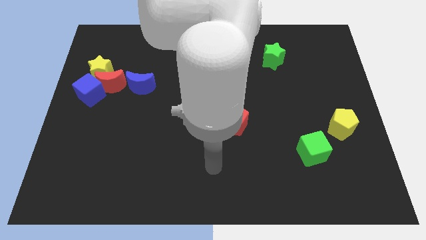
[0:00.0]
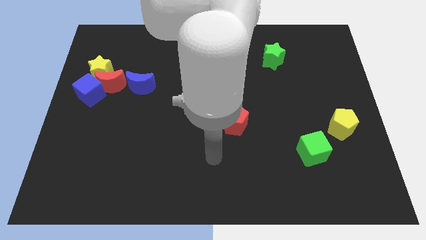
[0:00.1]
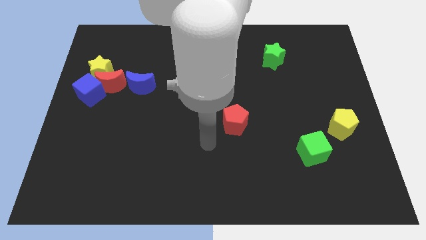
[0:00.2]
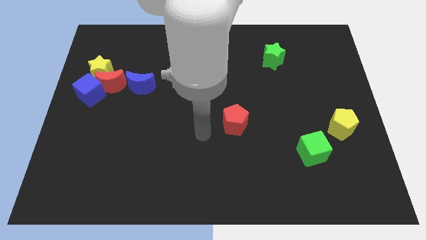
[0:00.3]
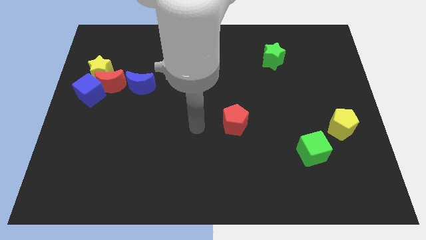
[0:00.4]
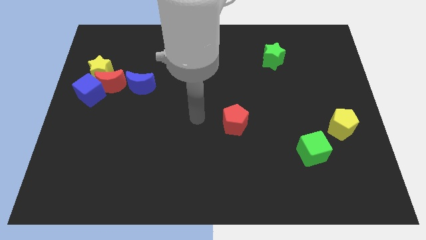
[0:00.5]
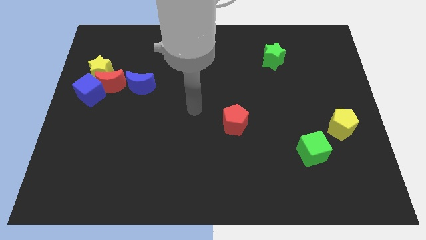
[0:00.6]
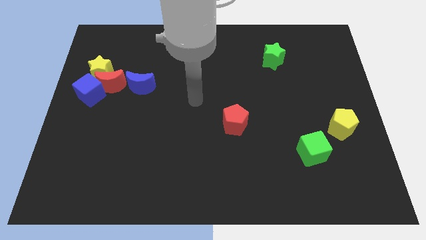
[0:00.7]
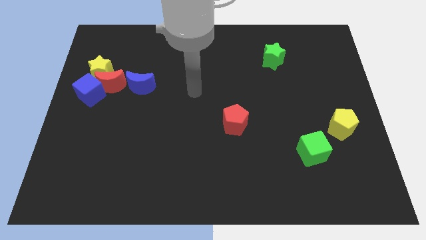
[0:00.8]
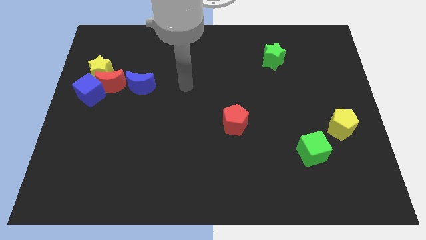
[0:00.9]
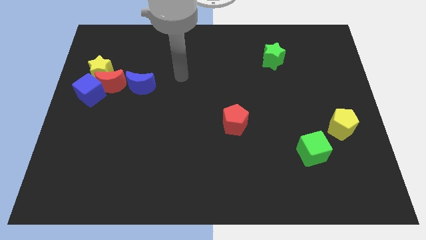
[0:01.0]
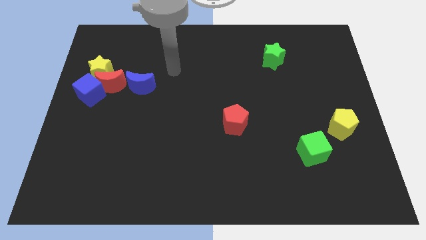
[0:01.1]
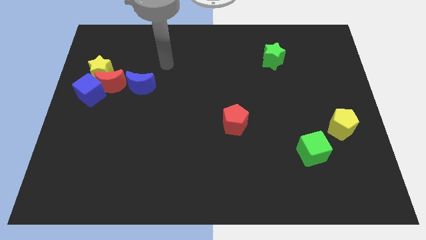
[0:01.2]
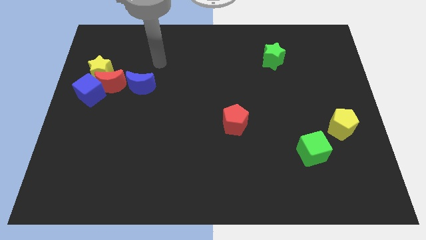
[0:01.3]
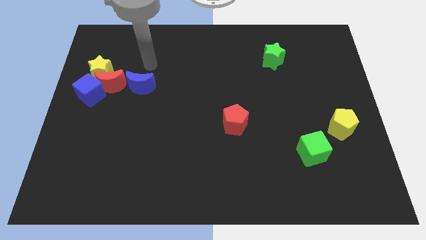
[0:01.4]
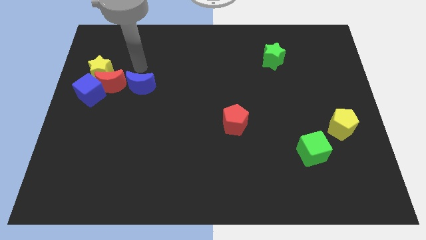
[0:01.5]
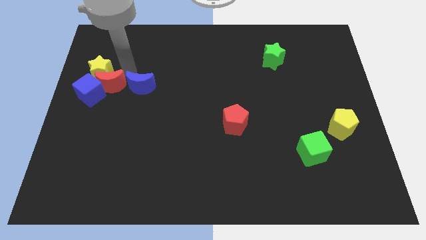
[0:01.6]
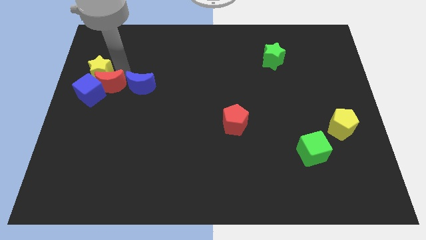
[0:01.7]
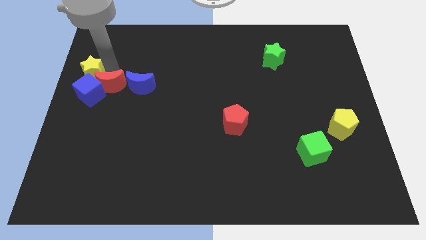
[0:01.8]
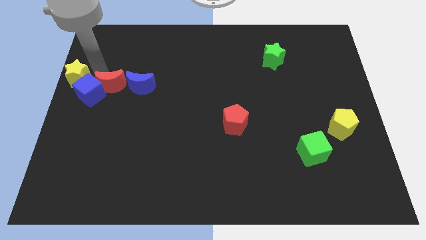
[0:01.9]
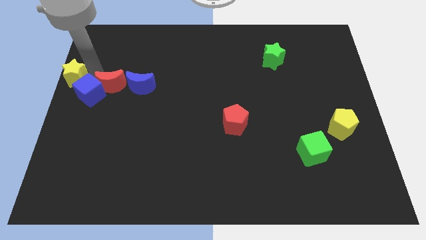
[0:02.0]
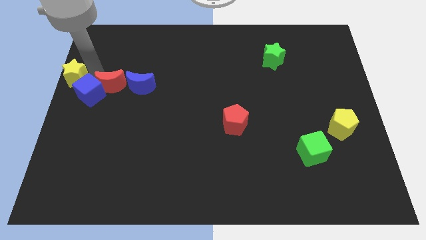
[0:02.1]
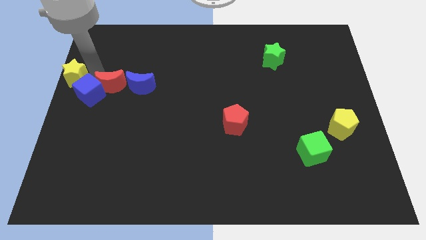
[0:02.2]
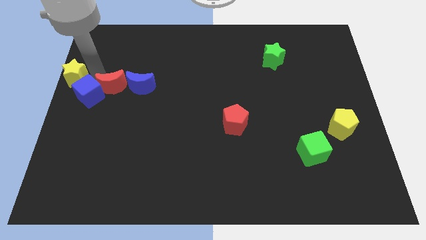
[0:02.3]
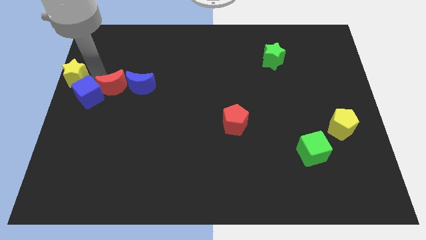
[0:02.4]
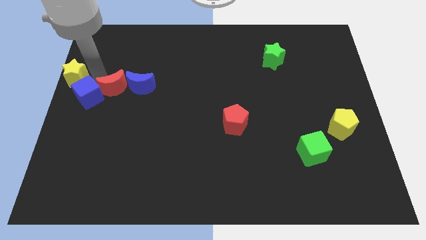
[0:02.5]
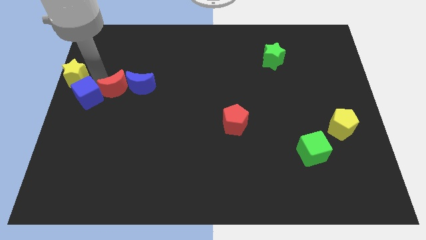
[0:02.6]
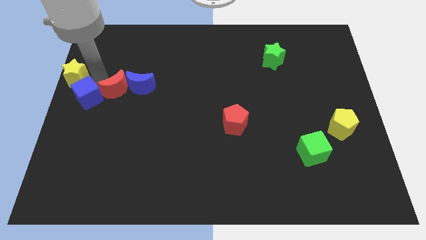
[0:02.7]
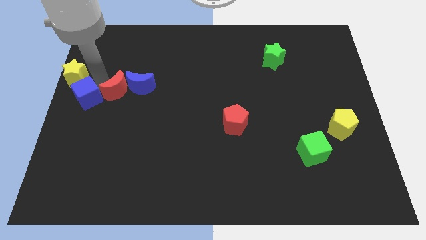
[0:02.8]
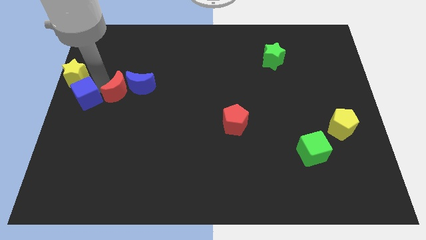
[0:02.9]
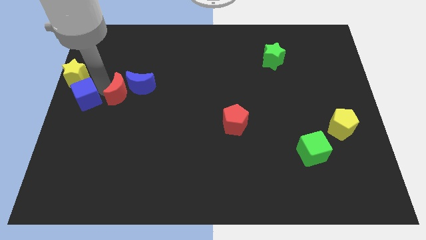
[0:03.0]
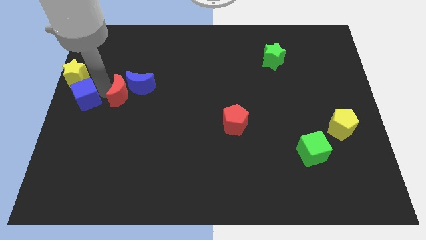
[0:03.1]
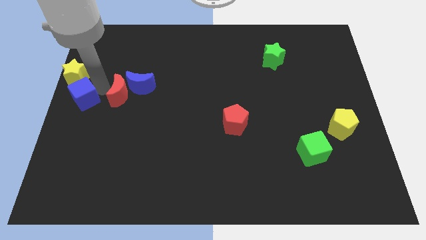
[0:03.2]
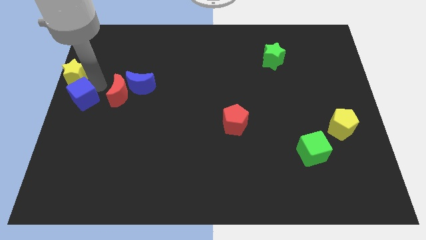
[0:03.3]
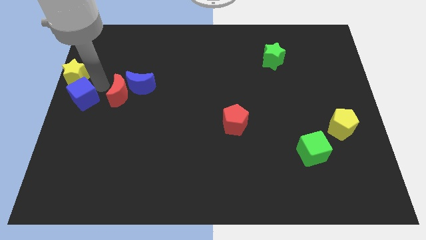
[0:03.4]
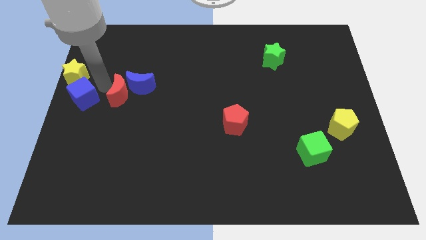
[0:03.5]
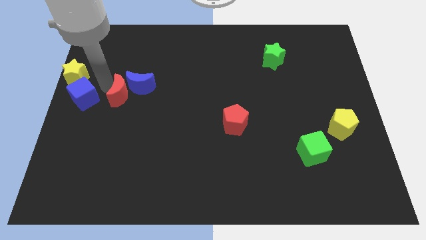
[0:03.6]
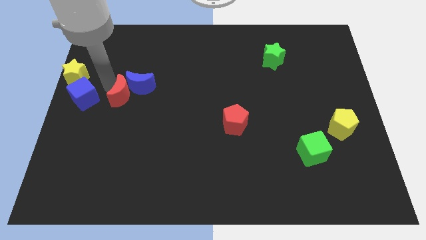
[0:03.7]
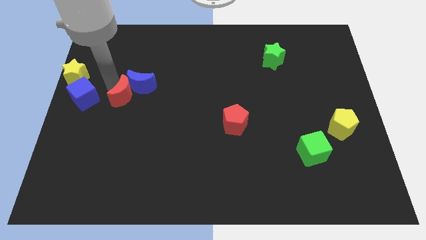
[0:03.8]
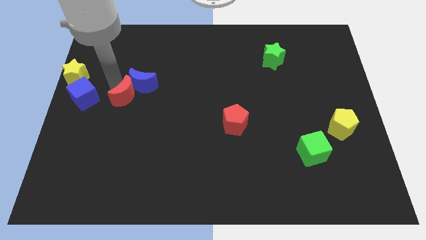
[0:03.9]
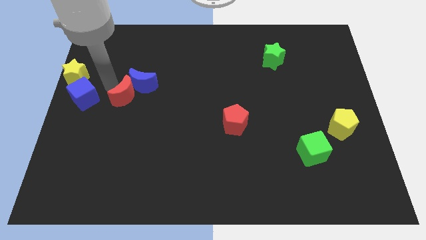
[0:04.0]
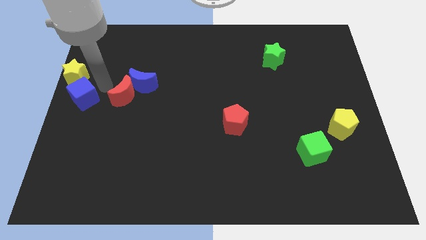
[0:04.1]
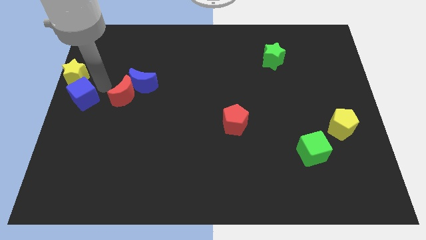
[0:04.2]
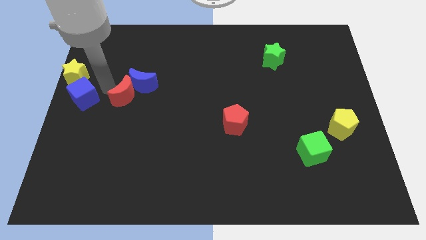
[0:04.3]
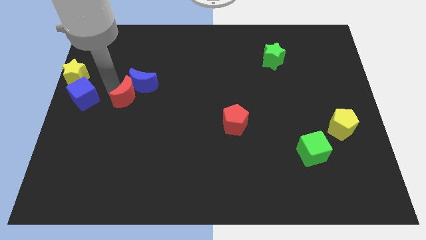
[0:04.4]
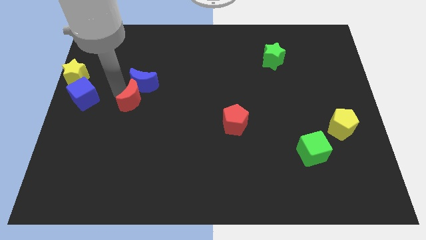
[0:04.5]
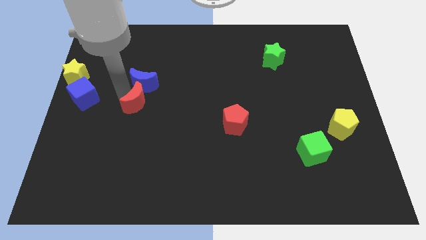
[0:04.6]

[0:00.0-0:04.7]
separate the red moon from the yellow star, blue cube, and blue moon

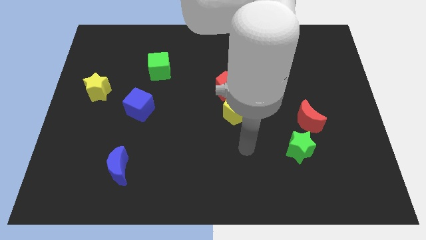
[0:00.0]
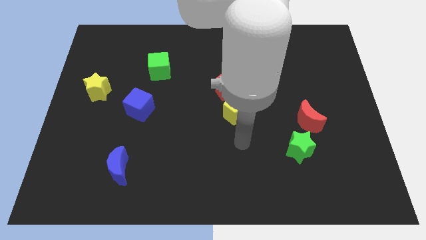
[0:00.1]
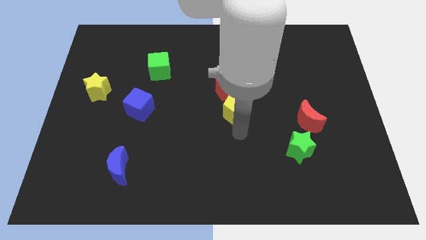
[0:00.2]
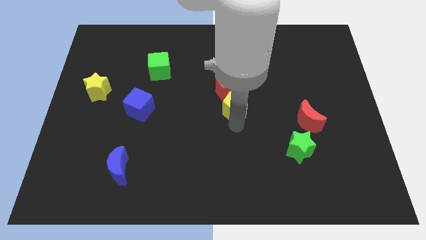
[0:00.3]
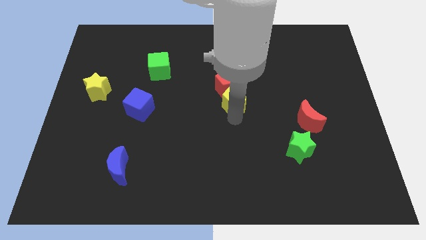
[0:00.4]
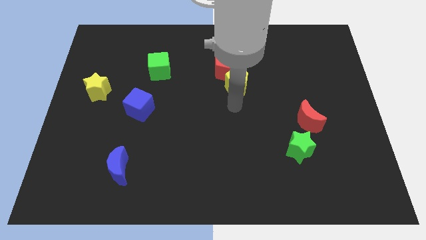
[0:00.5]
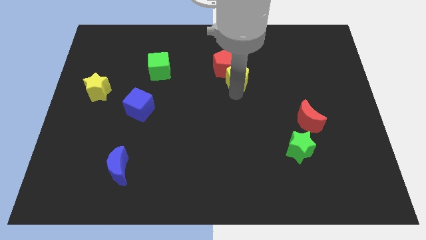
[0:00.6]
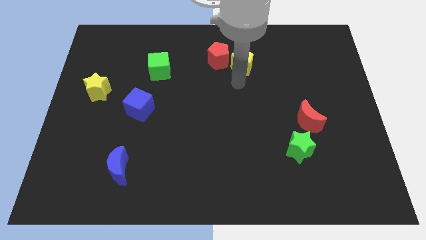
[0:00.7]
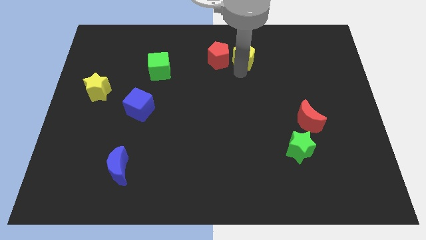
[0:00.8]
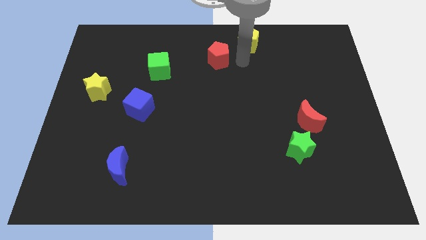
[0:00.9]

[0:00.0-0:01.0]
move the red pentagon away from the yellow pentagon

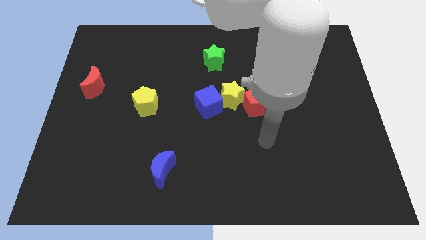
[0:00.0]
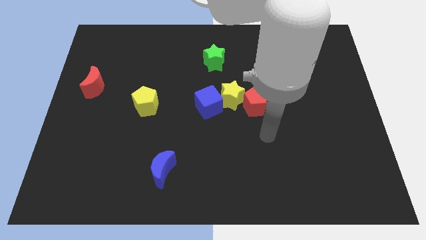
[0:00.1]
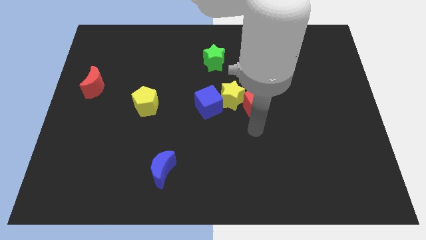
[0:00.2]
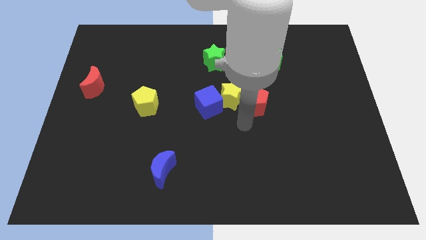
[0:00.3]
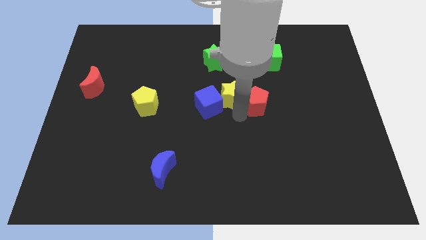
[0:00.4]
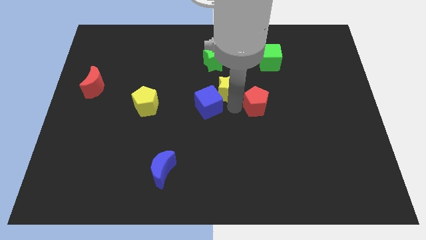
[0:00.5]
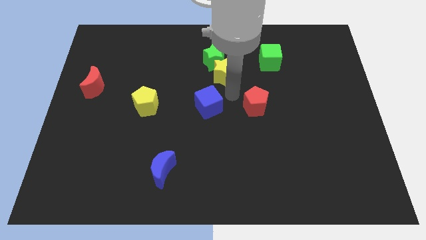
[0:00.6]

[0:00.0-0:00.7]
move the red pentagon away from the yellow star

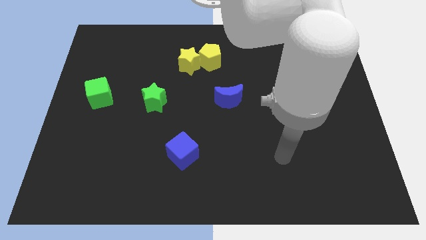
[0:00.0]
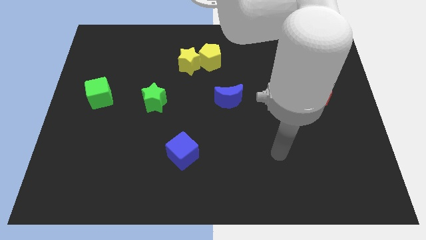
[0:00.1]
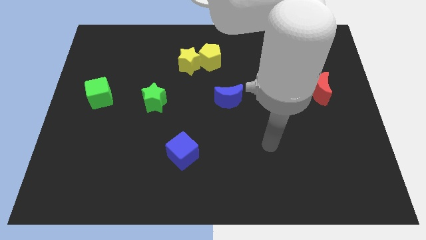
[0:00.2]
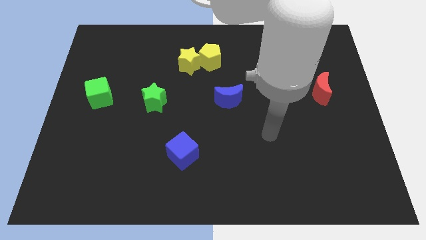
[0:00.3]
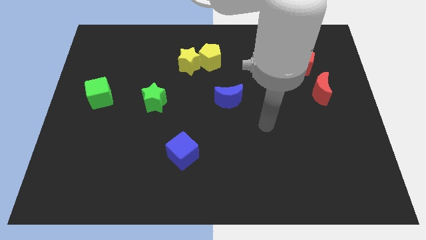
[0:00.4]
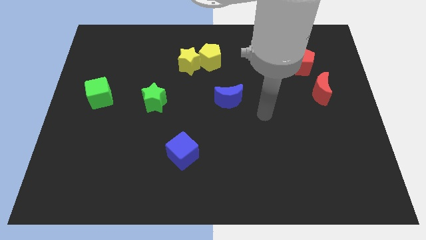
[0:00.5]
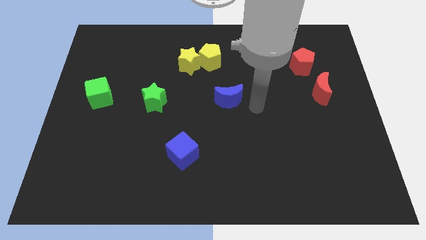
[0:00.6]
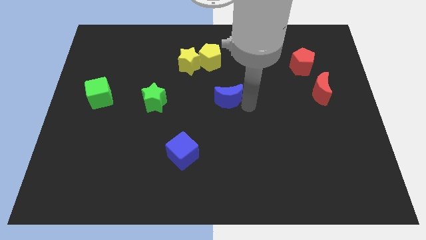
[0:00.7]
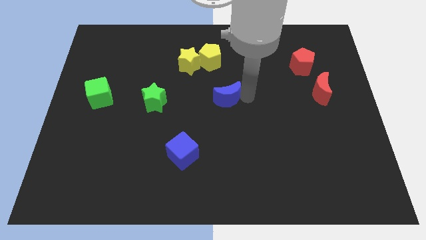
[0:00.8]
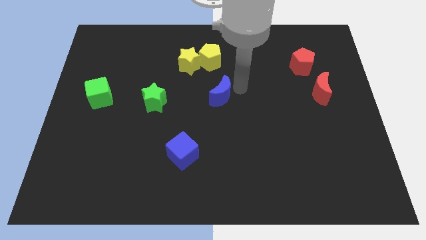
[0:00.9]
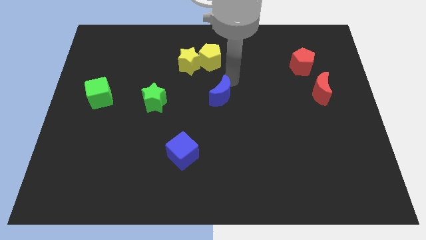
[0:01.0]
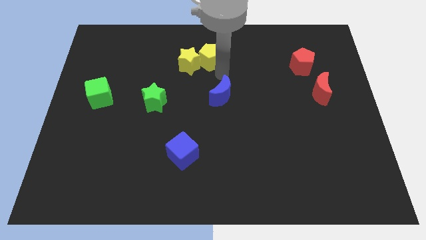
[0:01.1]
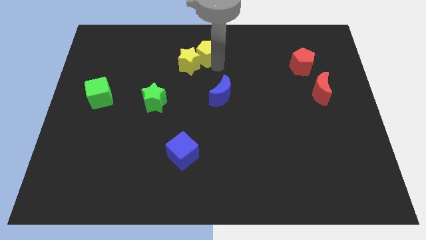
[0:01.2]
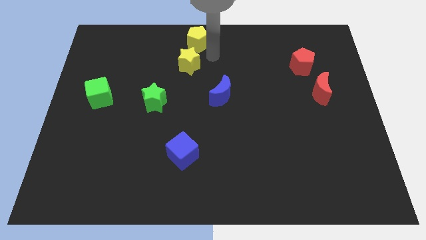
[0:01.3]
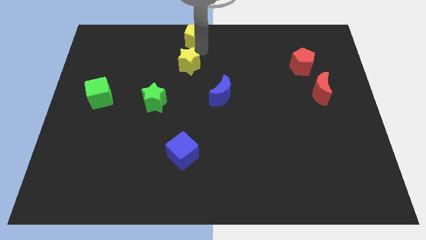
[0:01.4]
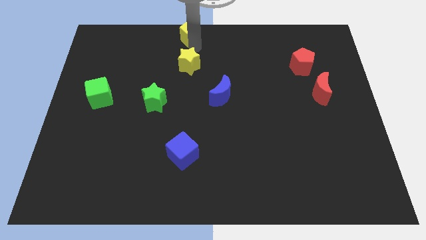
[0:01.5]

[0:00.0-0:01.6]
separate the yellow star from the yellow pentagon

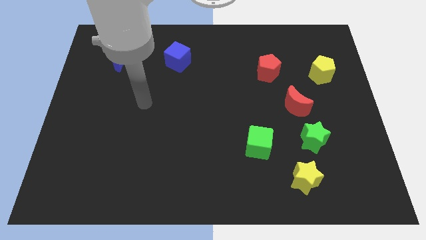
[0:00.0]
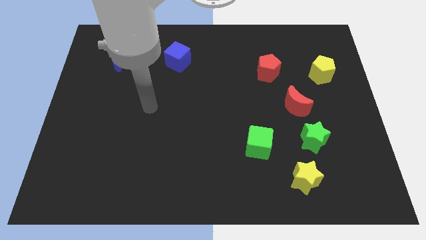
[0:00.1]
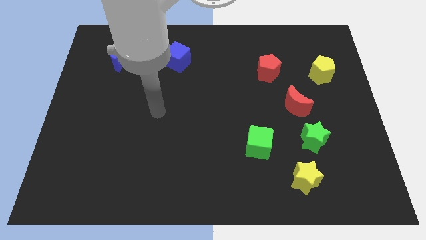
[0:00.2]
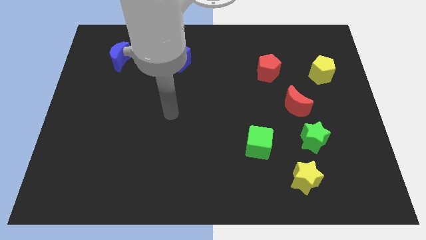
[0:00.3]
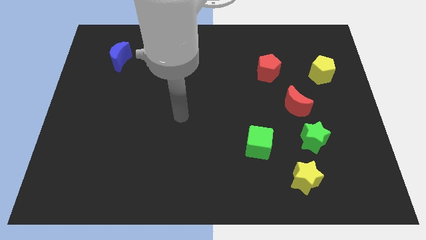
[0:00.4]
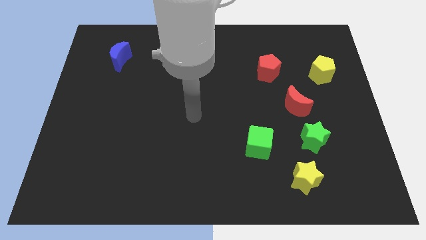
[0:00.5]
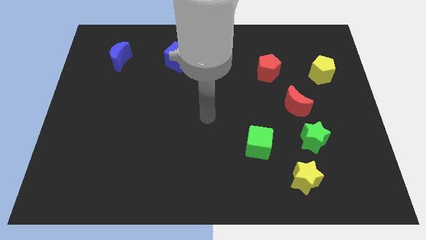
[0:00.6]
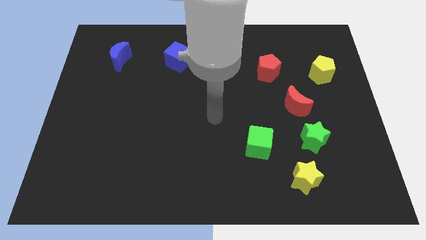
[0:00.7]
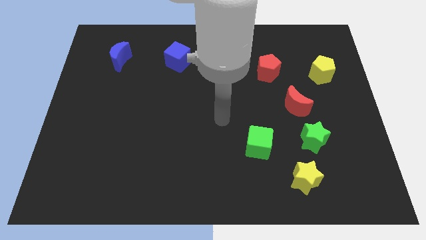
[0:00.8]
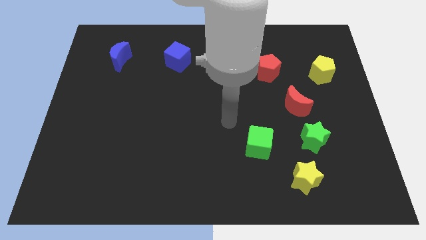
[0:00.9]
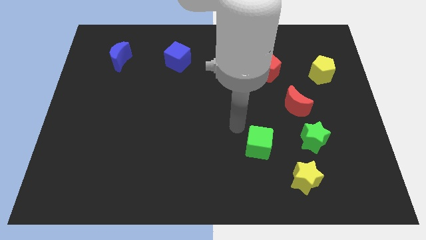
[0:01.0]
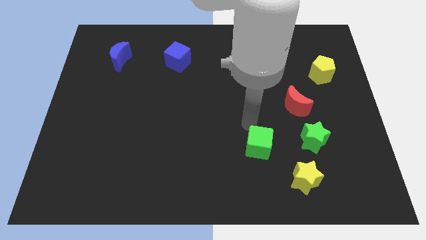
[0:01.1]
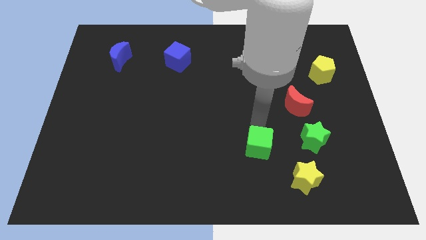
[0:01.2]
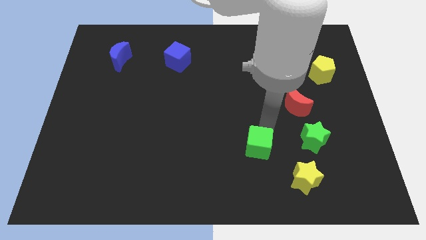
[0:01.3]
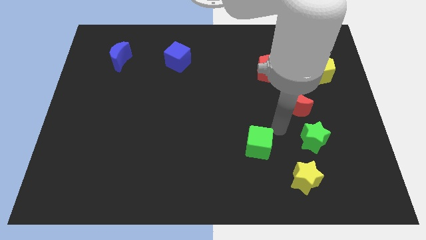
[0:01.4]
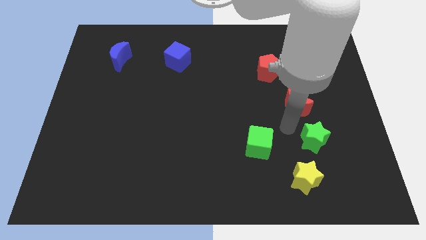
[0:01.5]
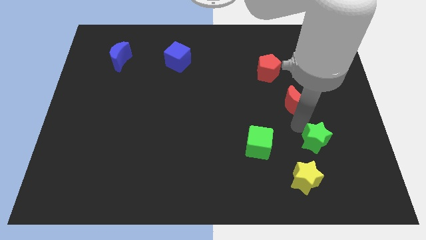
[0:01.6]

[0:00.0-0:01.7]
pull the red moon apart from the green star
